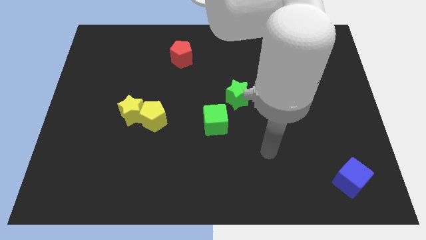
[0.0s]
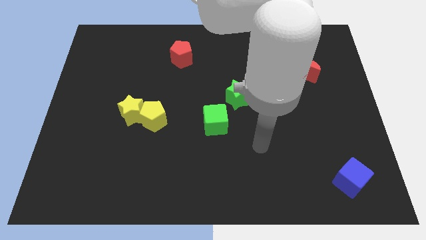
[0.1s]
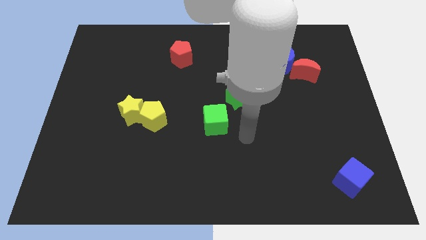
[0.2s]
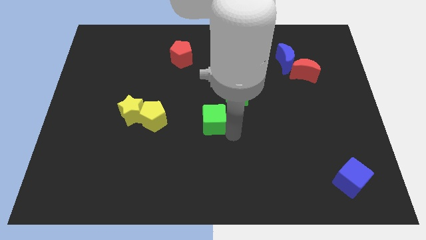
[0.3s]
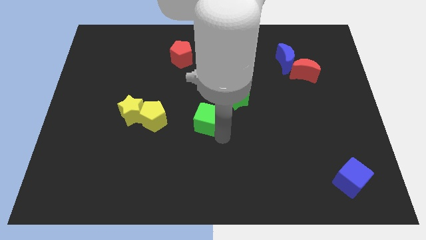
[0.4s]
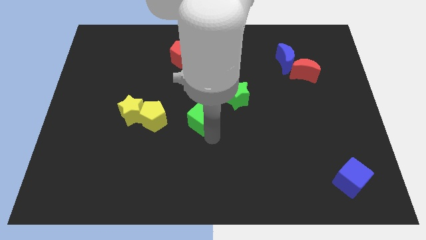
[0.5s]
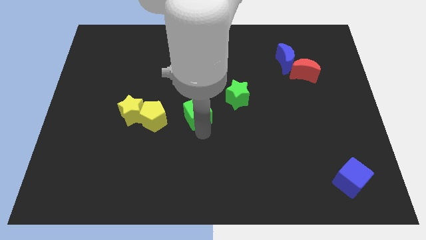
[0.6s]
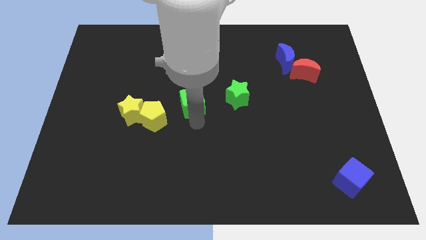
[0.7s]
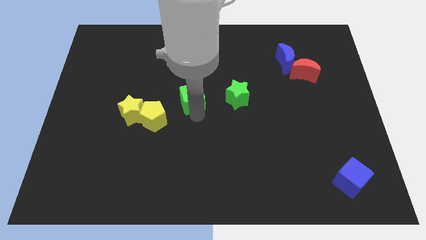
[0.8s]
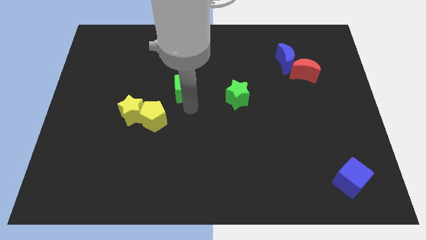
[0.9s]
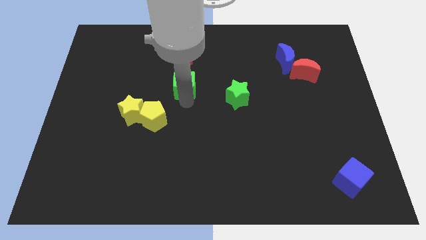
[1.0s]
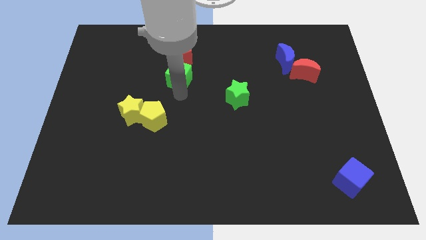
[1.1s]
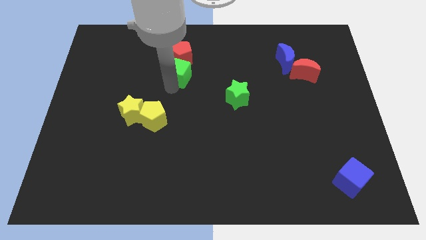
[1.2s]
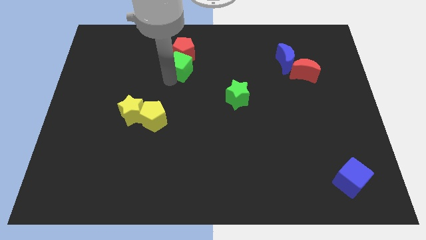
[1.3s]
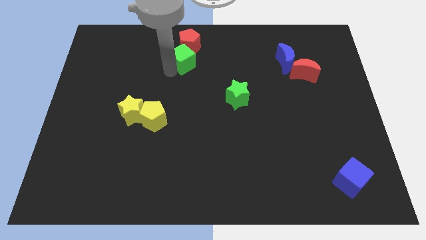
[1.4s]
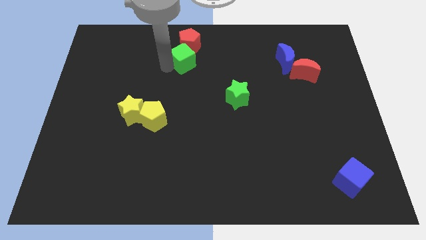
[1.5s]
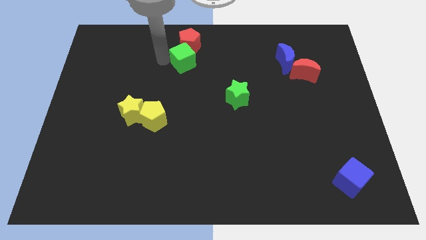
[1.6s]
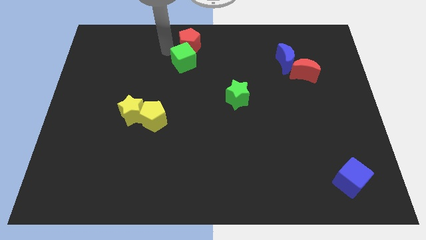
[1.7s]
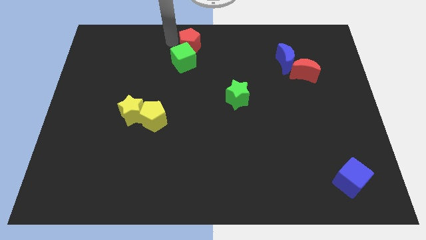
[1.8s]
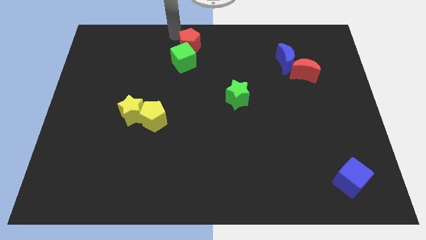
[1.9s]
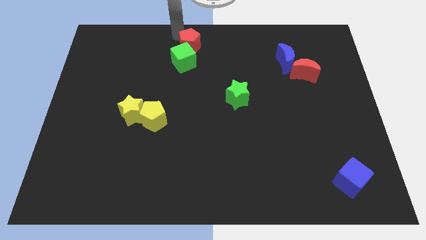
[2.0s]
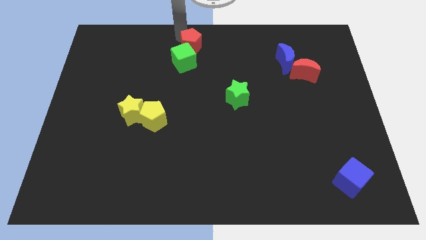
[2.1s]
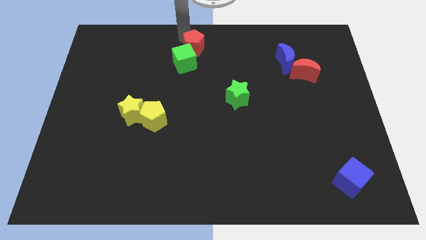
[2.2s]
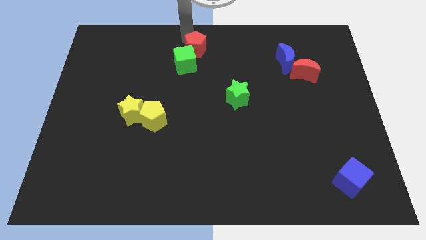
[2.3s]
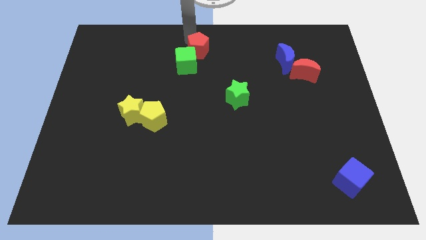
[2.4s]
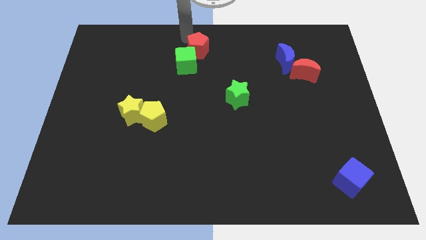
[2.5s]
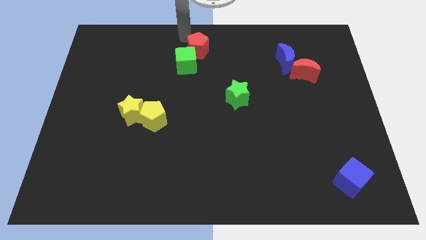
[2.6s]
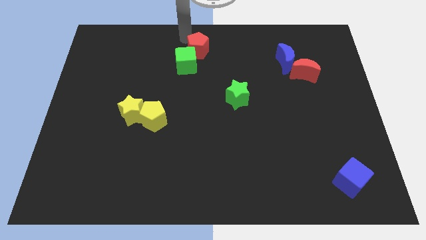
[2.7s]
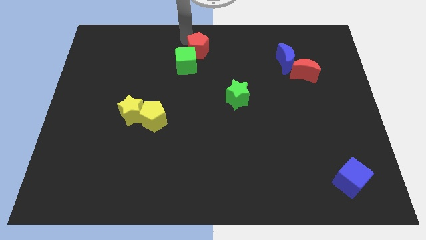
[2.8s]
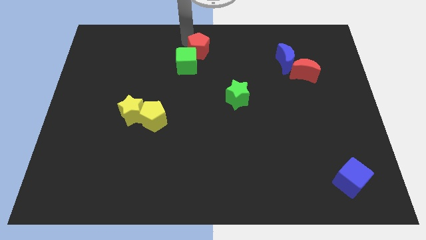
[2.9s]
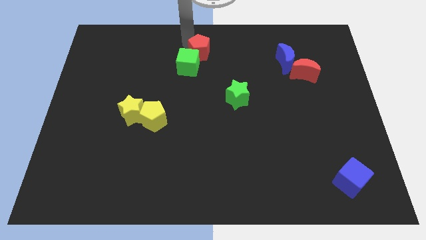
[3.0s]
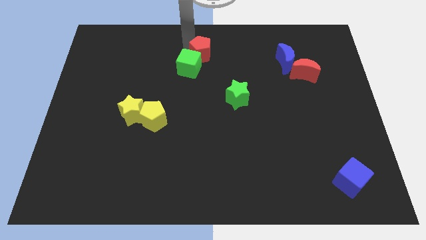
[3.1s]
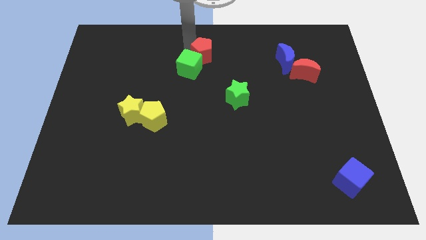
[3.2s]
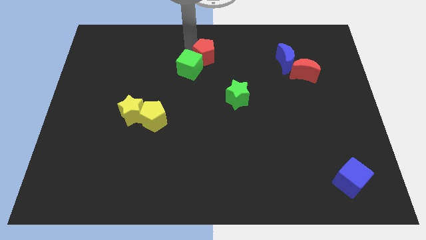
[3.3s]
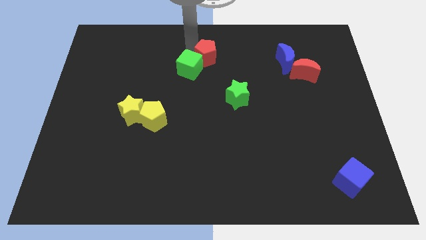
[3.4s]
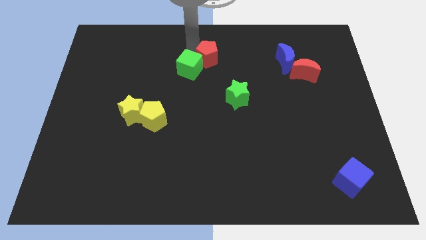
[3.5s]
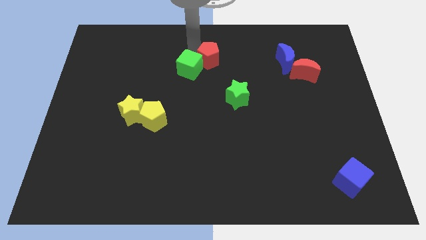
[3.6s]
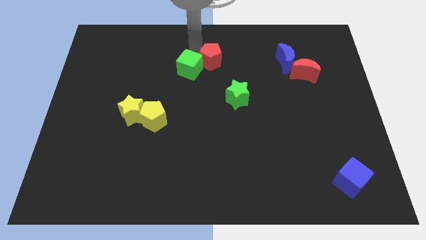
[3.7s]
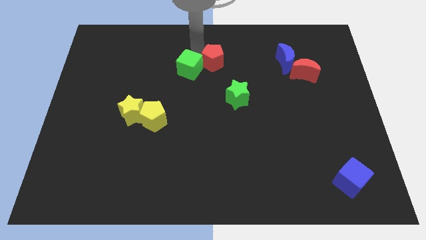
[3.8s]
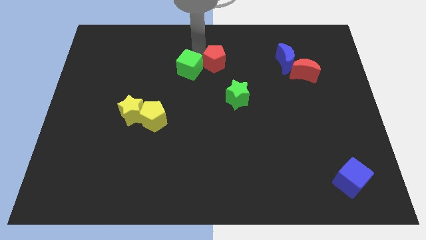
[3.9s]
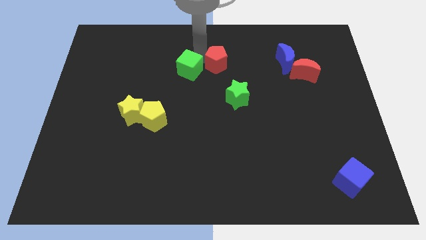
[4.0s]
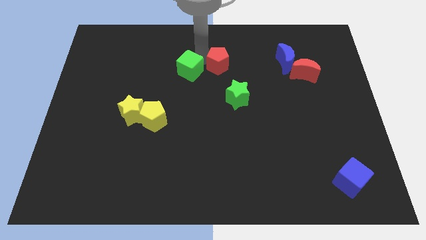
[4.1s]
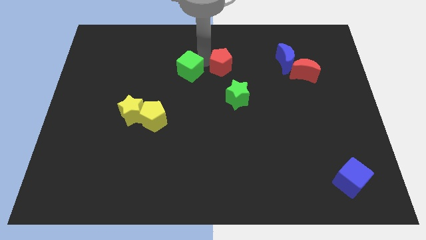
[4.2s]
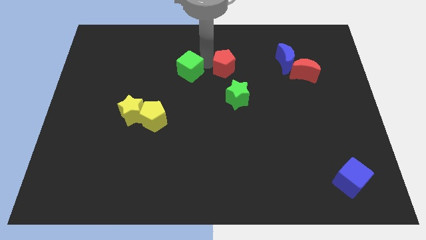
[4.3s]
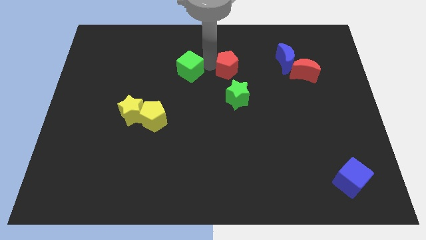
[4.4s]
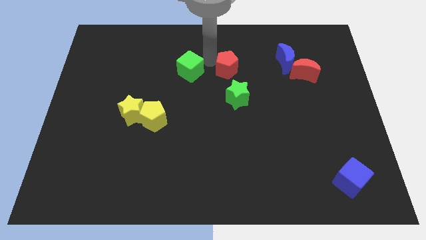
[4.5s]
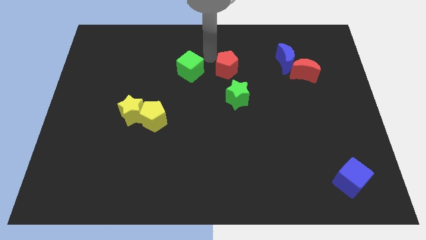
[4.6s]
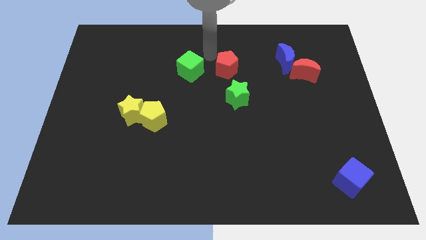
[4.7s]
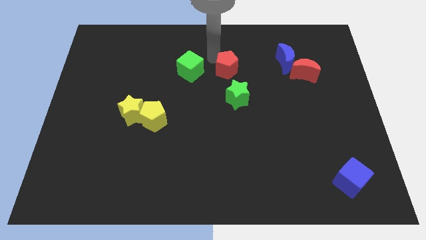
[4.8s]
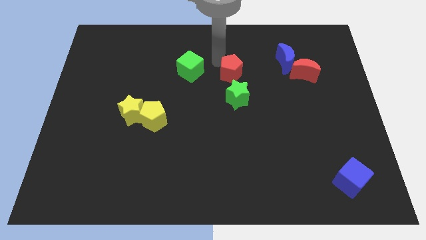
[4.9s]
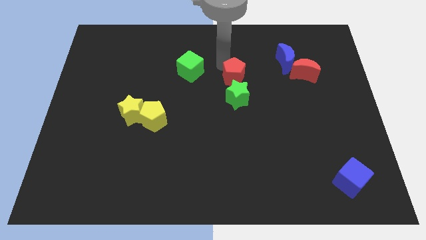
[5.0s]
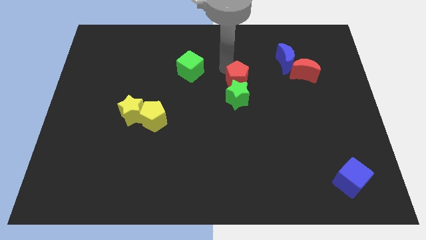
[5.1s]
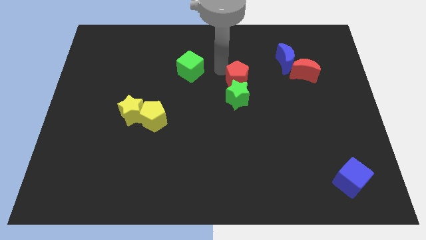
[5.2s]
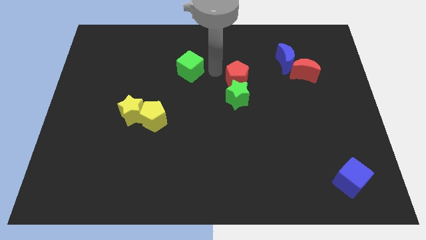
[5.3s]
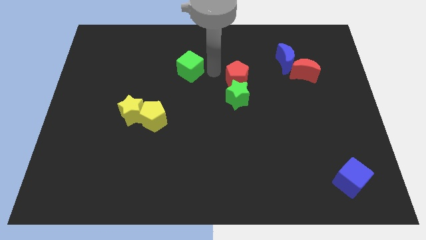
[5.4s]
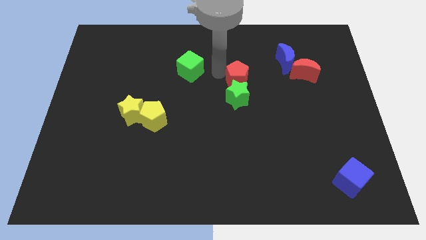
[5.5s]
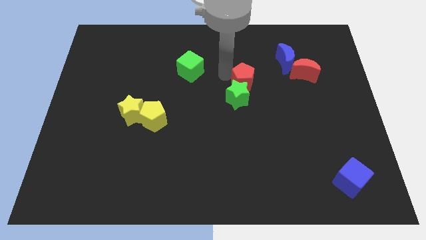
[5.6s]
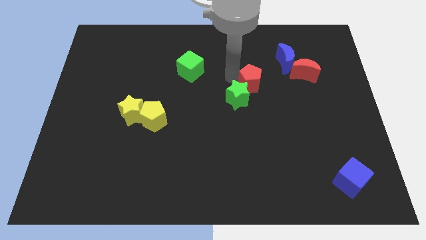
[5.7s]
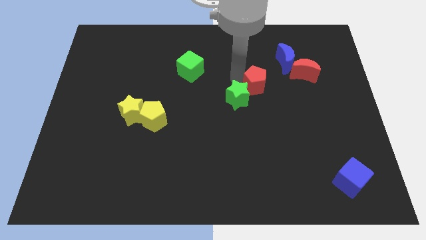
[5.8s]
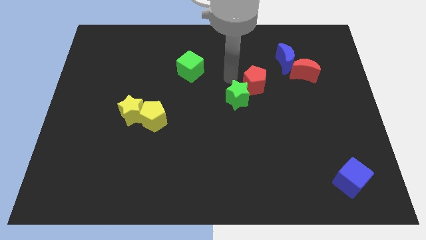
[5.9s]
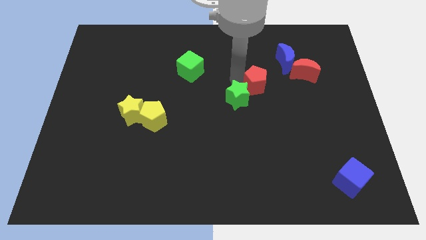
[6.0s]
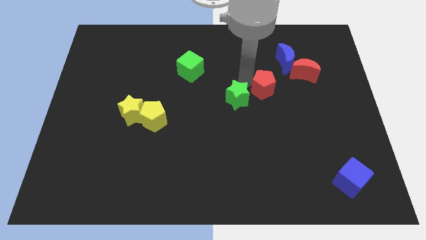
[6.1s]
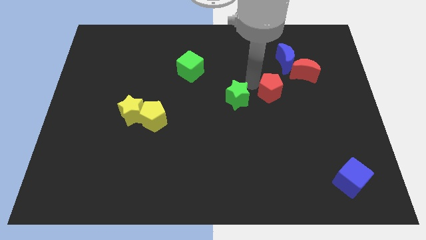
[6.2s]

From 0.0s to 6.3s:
slide the red pentagon to the bottom side of the blue moon

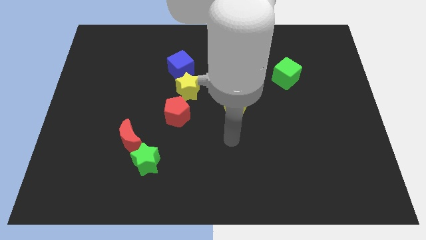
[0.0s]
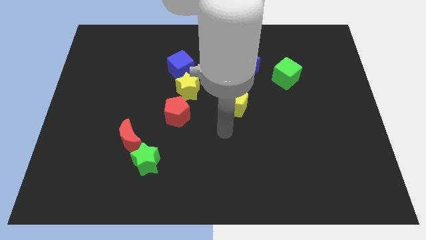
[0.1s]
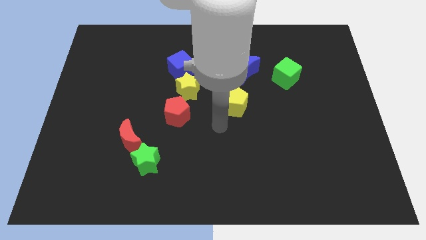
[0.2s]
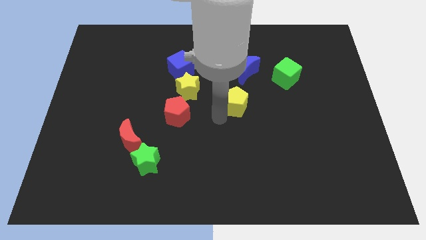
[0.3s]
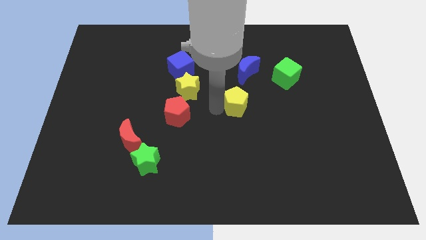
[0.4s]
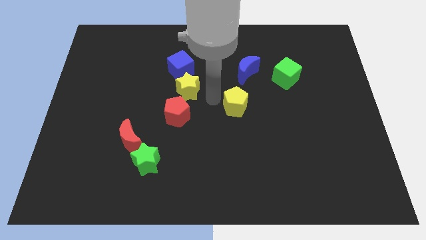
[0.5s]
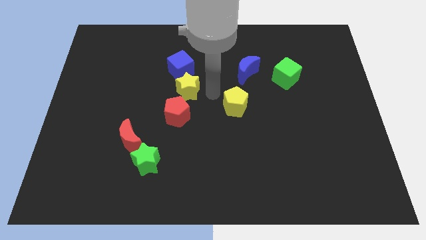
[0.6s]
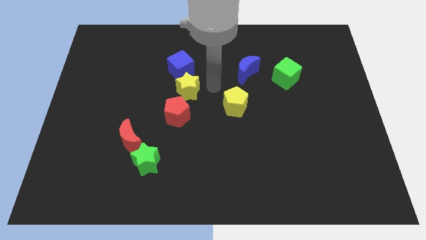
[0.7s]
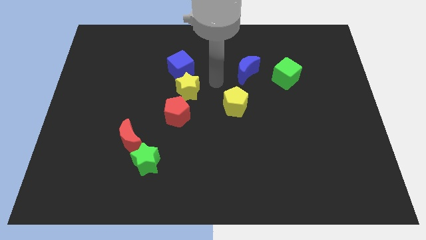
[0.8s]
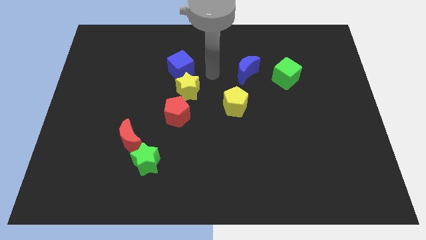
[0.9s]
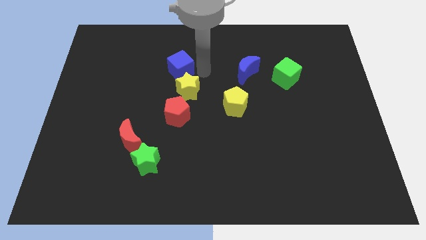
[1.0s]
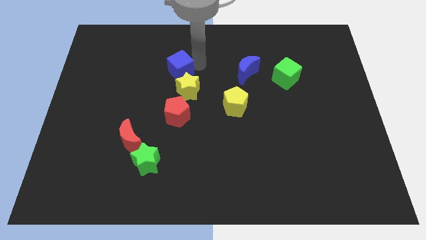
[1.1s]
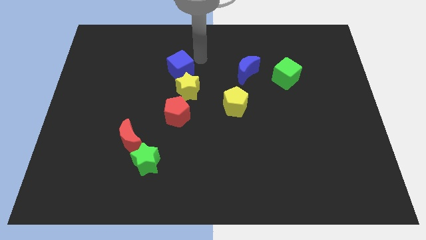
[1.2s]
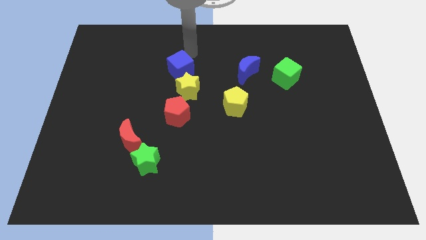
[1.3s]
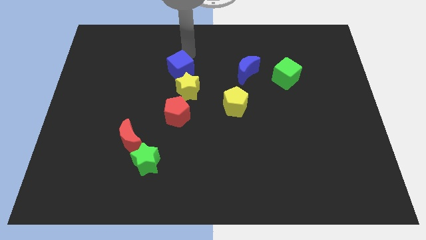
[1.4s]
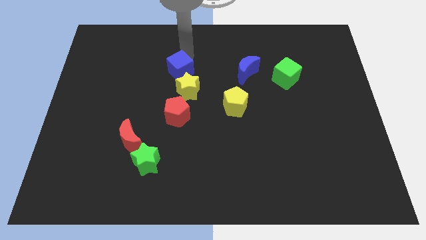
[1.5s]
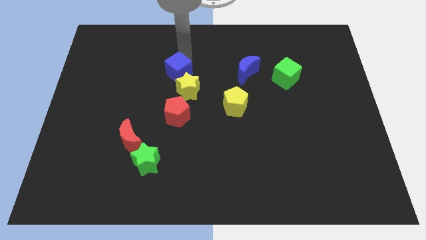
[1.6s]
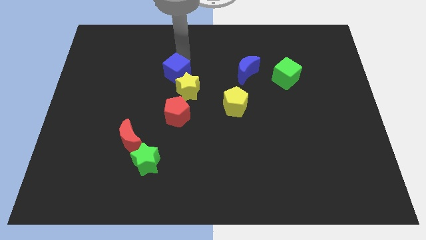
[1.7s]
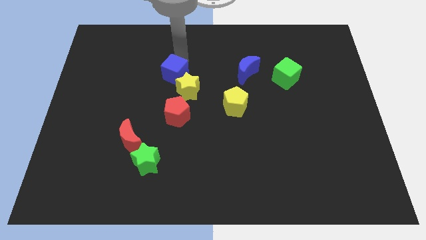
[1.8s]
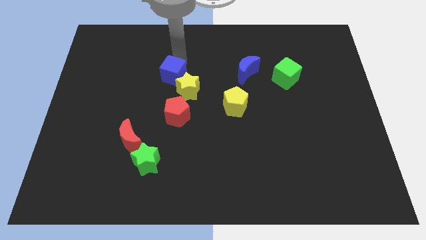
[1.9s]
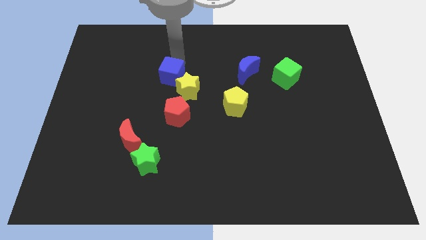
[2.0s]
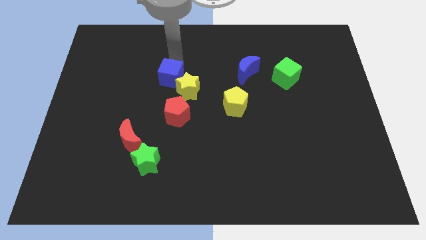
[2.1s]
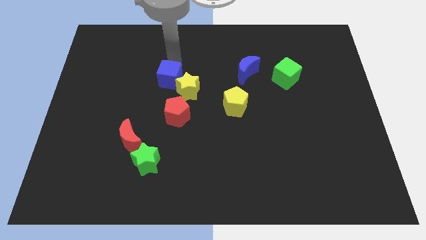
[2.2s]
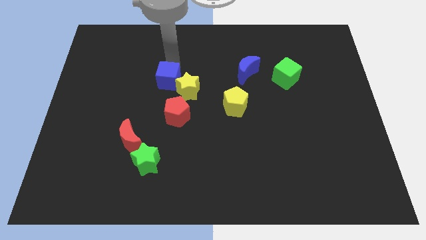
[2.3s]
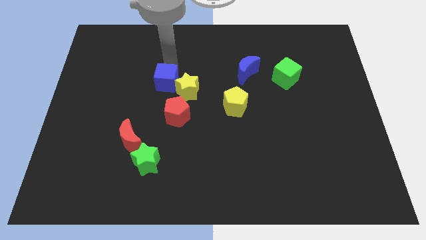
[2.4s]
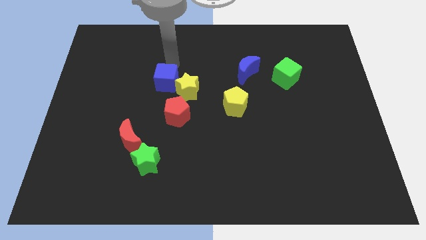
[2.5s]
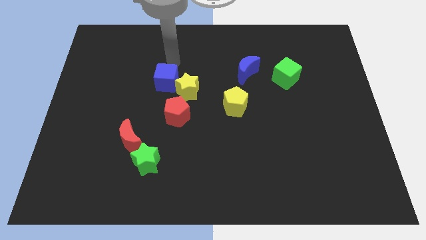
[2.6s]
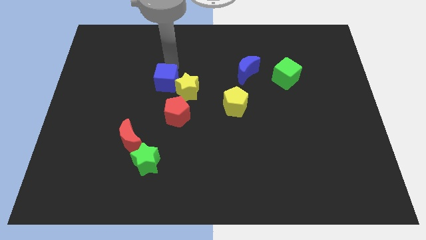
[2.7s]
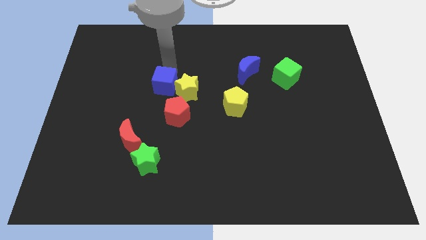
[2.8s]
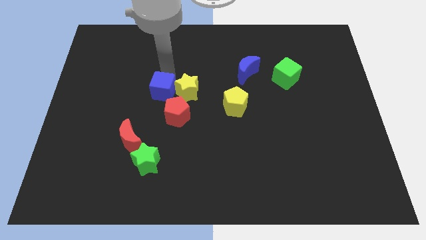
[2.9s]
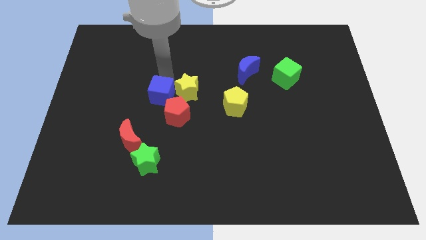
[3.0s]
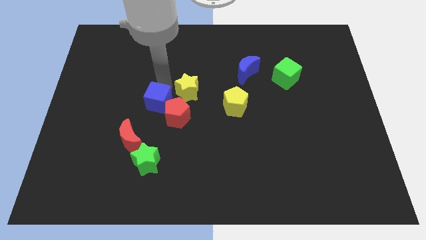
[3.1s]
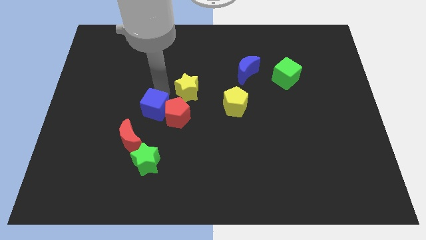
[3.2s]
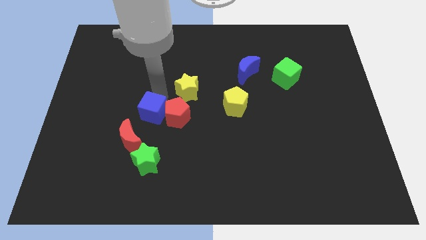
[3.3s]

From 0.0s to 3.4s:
put the blue cube diagonally down and to the left of the red pentagon
